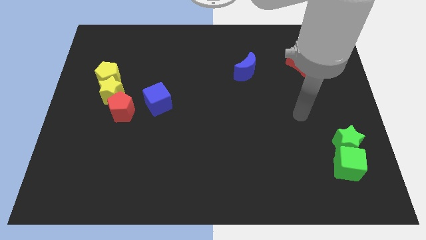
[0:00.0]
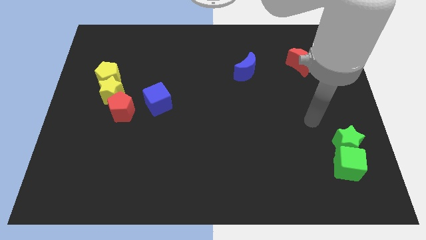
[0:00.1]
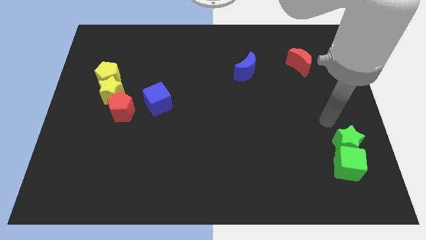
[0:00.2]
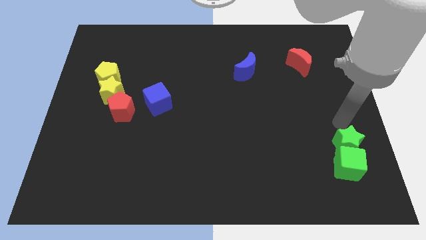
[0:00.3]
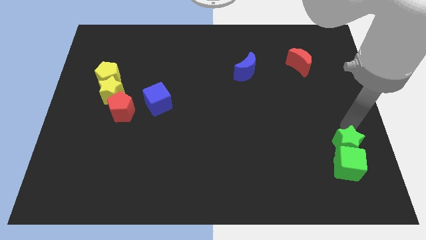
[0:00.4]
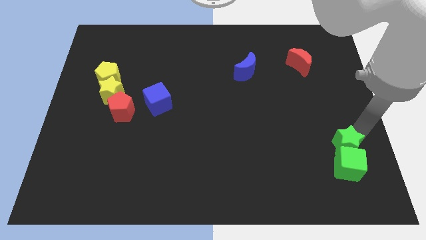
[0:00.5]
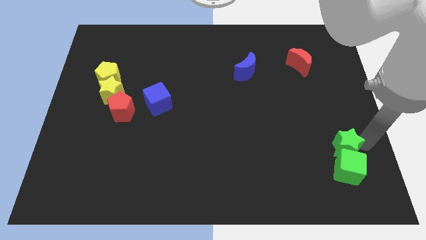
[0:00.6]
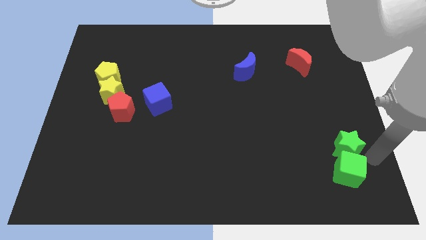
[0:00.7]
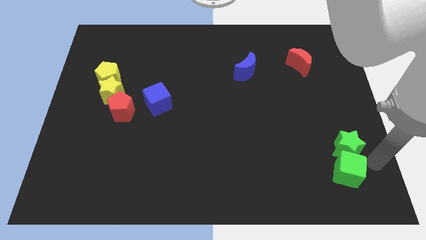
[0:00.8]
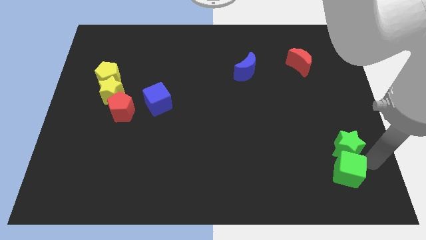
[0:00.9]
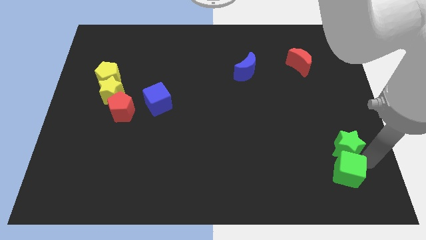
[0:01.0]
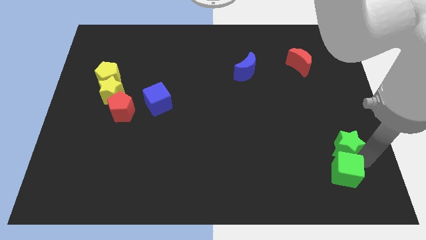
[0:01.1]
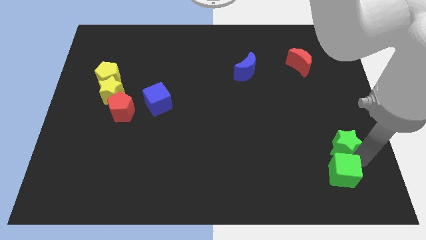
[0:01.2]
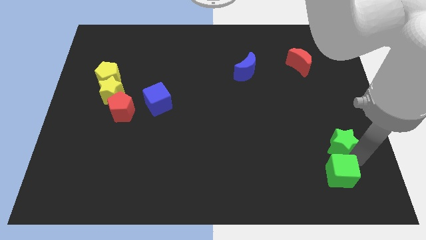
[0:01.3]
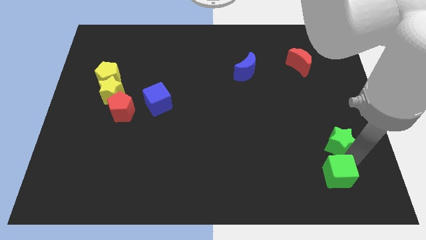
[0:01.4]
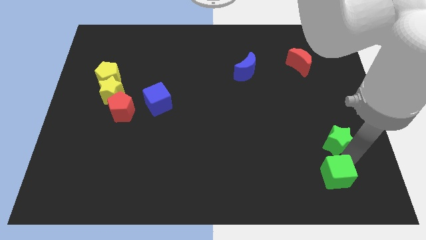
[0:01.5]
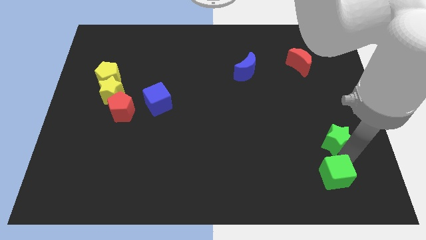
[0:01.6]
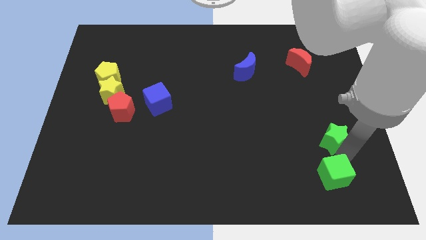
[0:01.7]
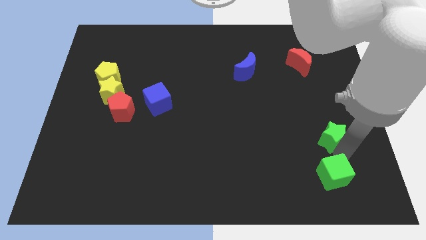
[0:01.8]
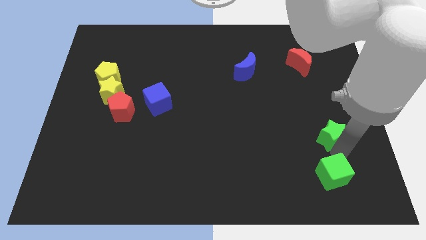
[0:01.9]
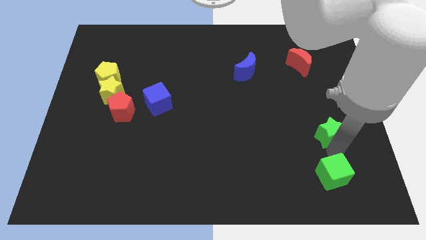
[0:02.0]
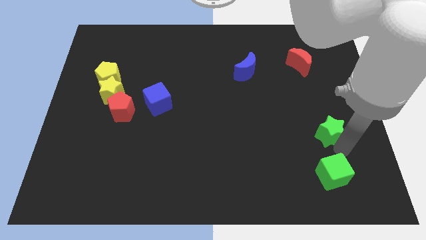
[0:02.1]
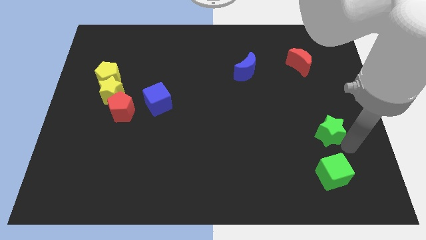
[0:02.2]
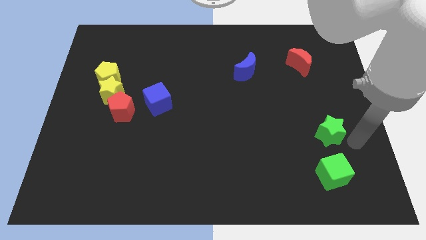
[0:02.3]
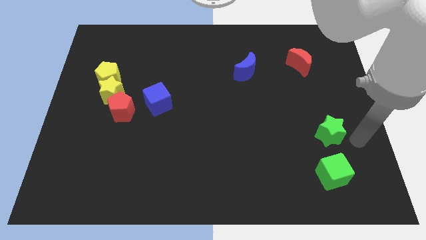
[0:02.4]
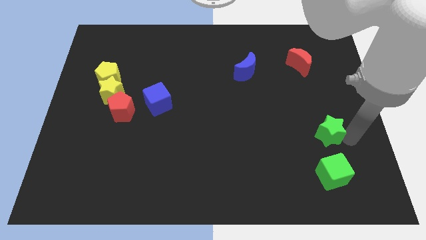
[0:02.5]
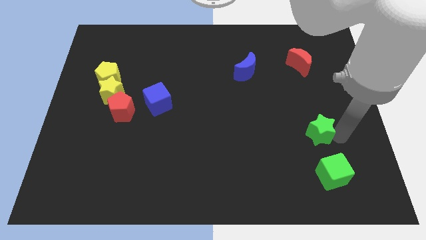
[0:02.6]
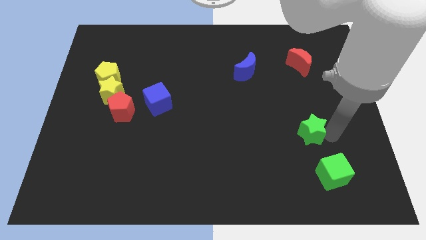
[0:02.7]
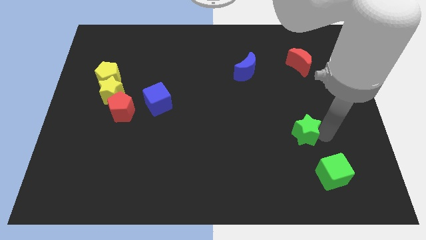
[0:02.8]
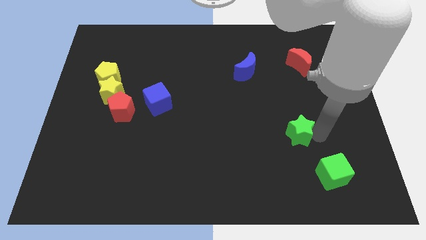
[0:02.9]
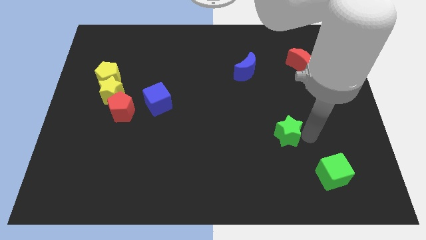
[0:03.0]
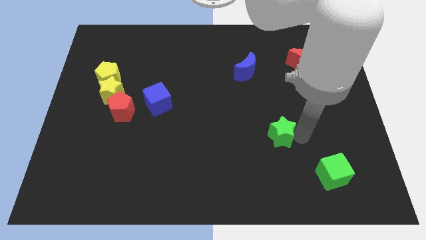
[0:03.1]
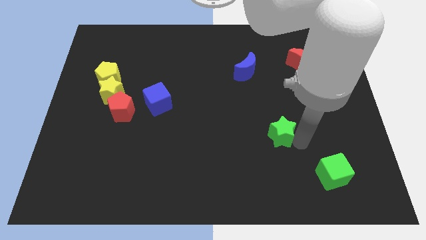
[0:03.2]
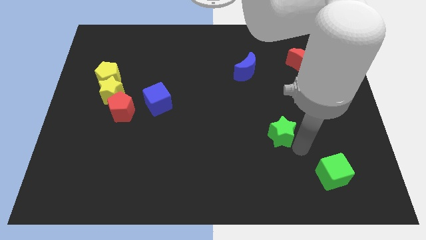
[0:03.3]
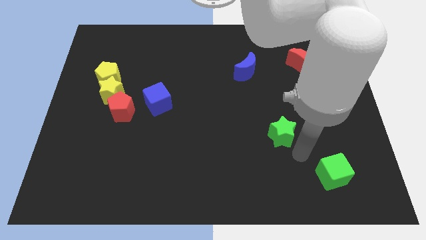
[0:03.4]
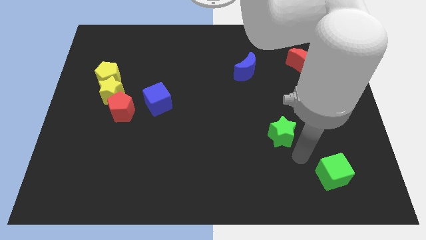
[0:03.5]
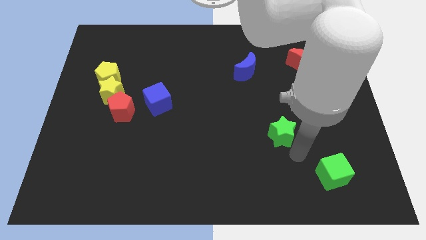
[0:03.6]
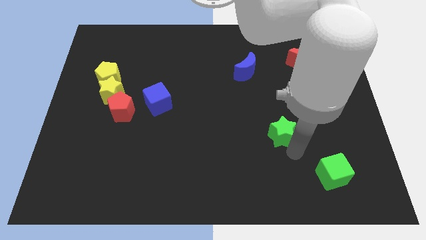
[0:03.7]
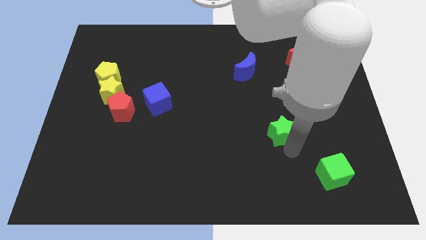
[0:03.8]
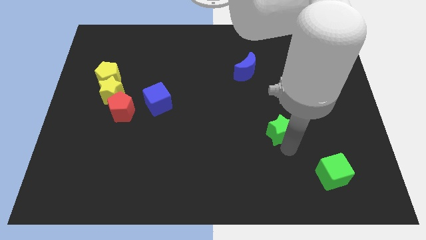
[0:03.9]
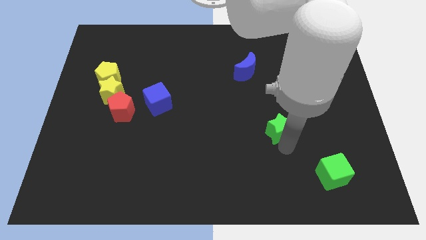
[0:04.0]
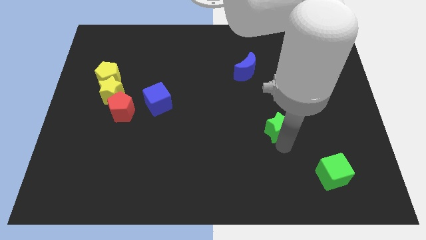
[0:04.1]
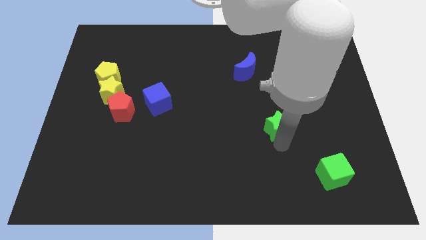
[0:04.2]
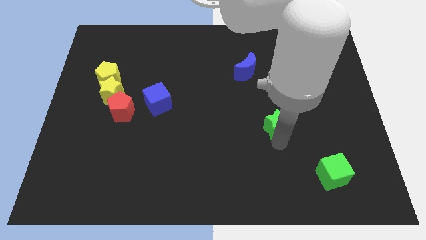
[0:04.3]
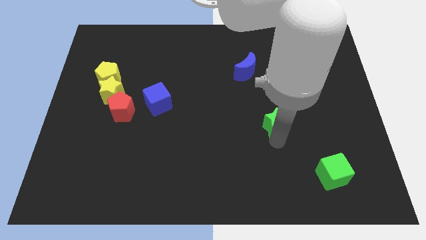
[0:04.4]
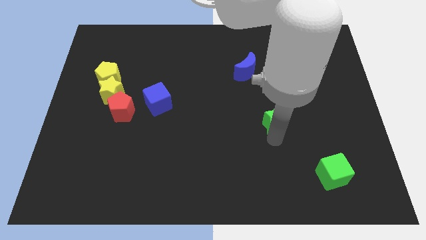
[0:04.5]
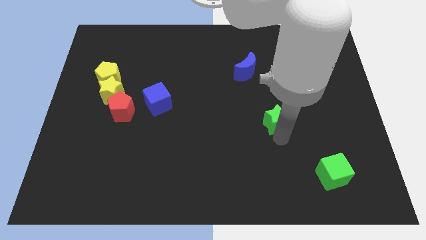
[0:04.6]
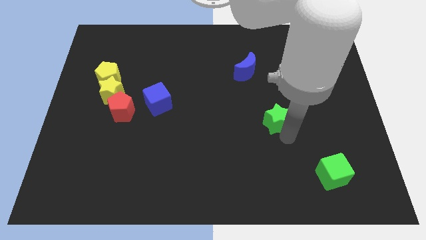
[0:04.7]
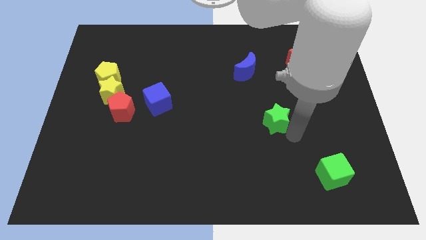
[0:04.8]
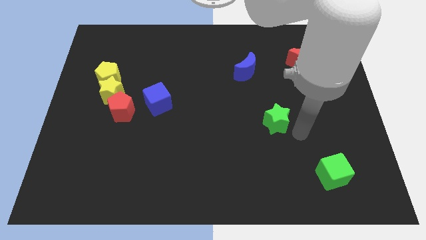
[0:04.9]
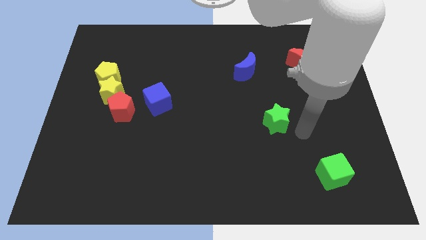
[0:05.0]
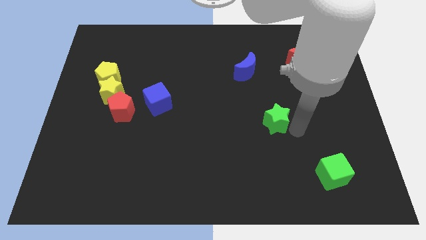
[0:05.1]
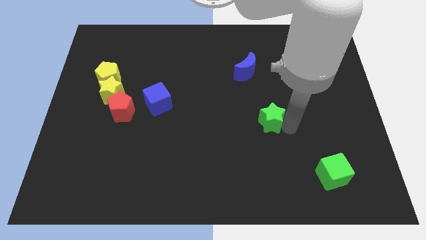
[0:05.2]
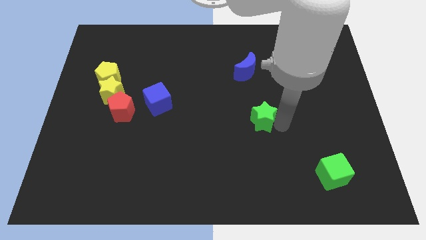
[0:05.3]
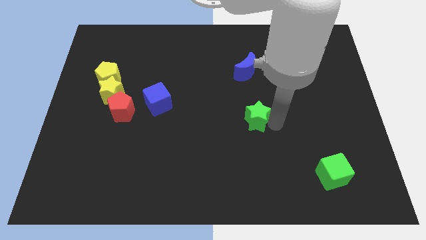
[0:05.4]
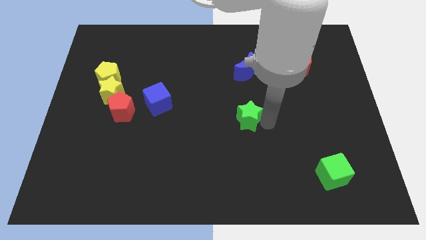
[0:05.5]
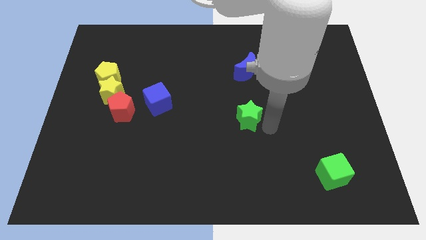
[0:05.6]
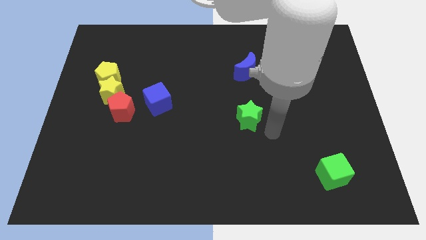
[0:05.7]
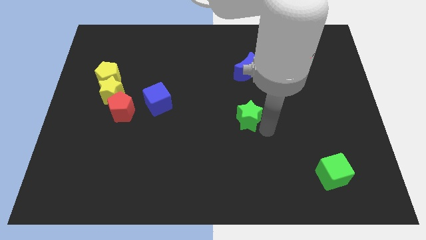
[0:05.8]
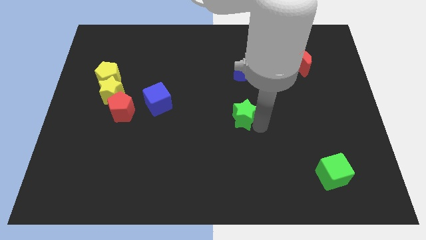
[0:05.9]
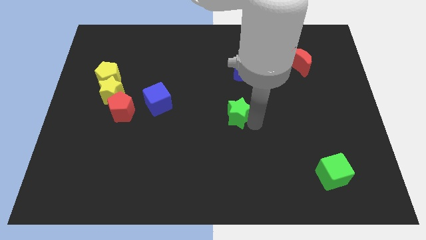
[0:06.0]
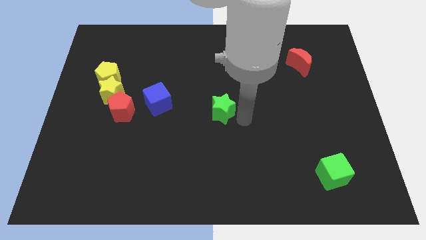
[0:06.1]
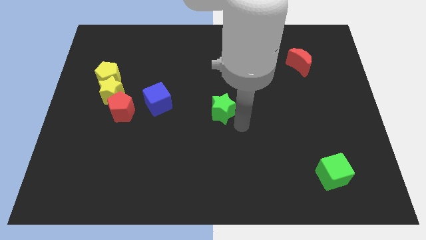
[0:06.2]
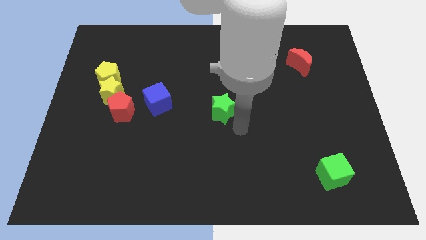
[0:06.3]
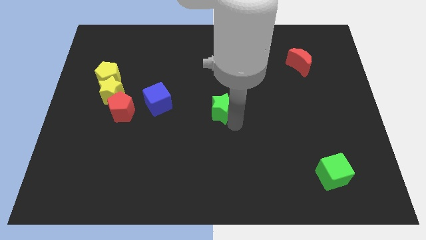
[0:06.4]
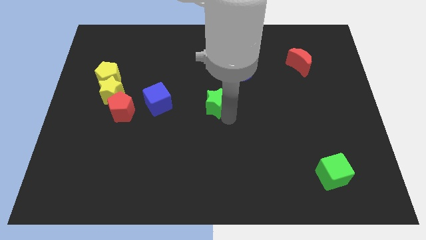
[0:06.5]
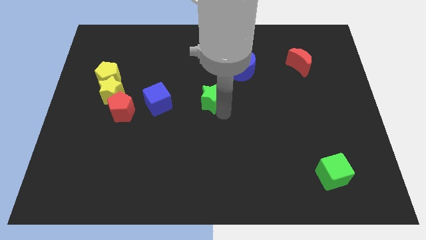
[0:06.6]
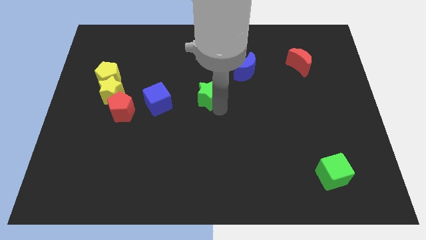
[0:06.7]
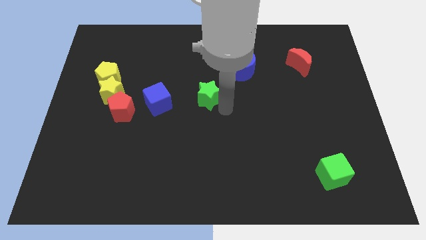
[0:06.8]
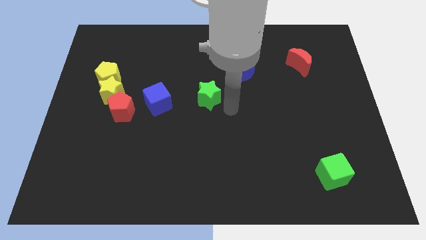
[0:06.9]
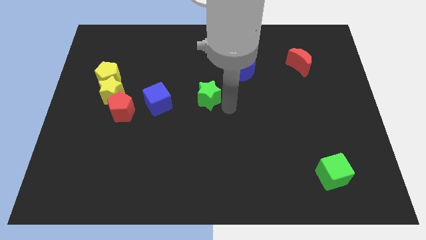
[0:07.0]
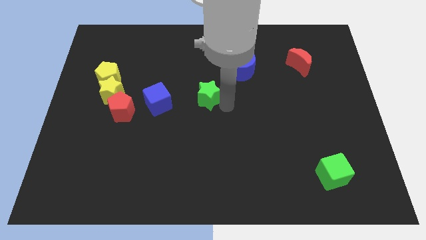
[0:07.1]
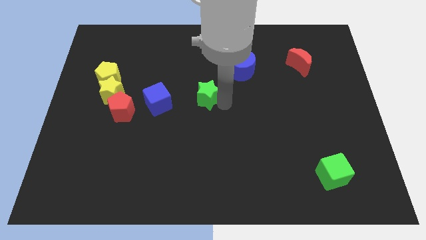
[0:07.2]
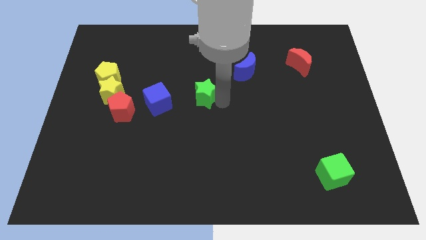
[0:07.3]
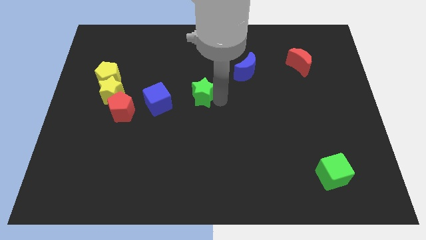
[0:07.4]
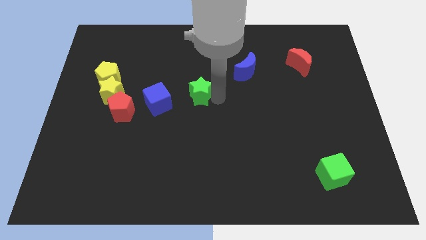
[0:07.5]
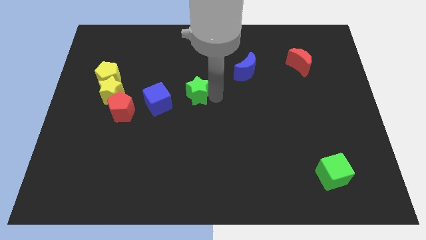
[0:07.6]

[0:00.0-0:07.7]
move the green star to the top right of the blue cube
